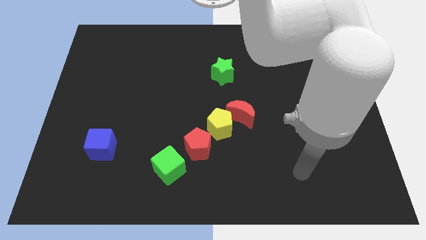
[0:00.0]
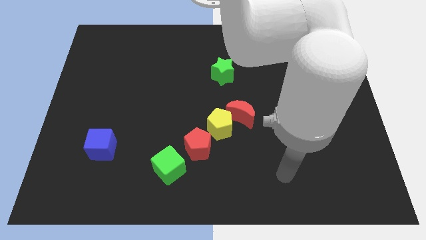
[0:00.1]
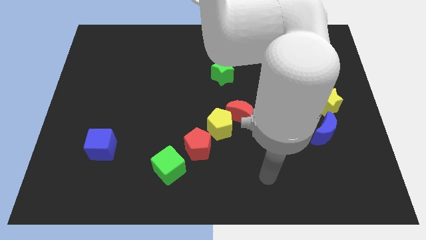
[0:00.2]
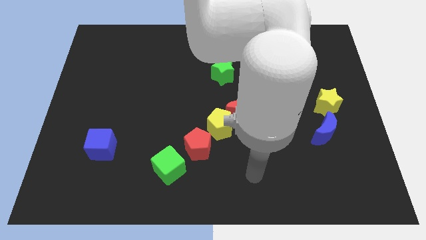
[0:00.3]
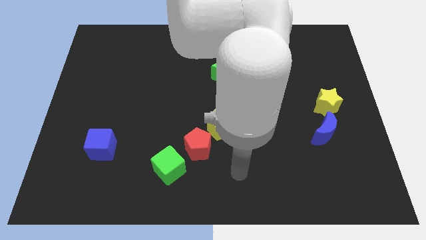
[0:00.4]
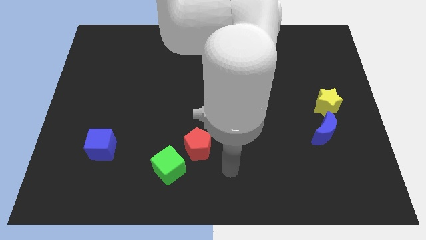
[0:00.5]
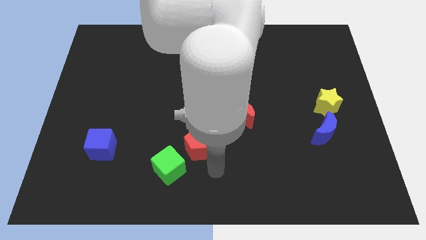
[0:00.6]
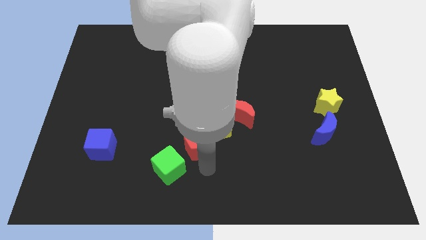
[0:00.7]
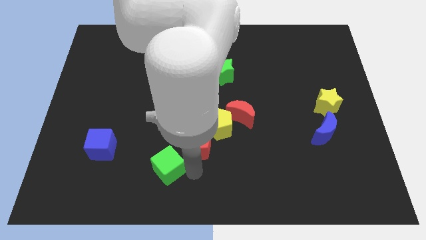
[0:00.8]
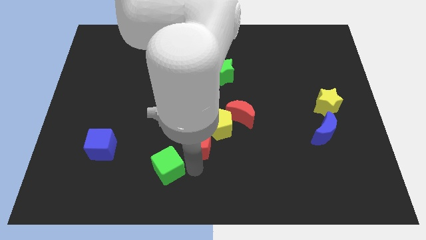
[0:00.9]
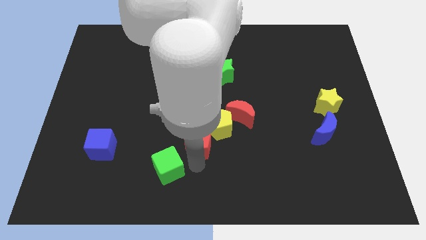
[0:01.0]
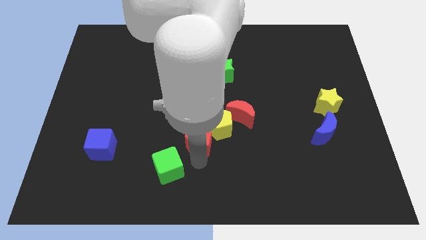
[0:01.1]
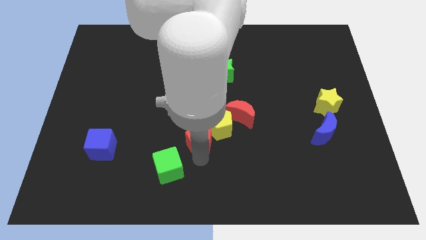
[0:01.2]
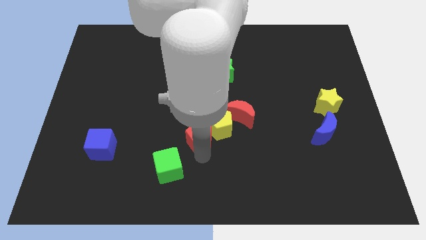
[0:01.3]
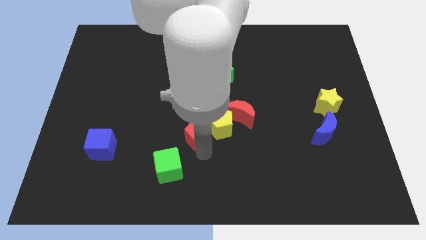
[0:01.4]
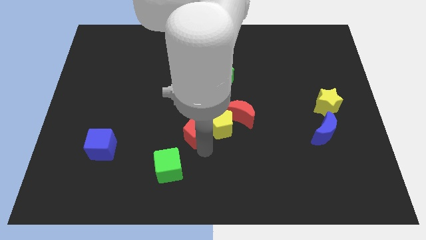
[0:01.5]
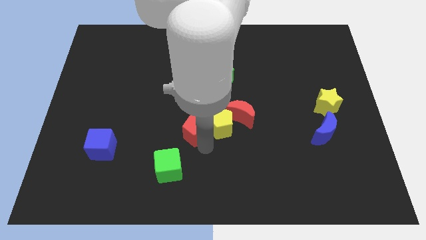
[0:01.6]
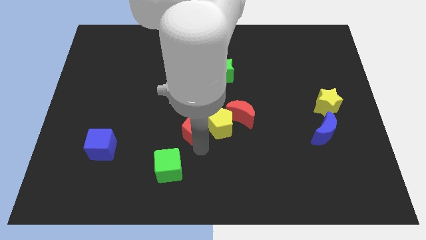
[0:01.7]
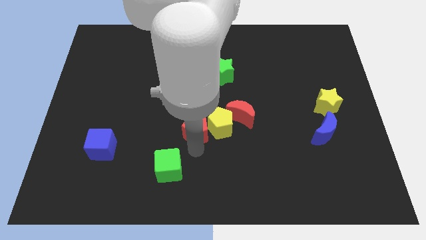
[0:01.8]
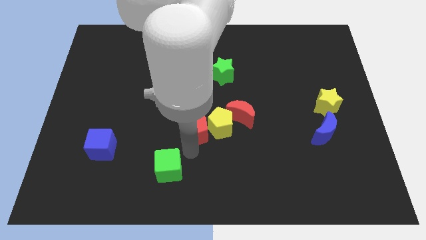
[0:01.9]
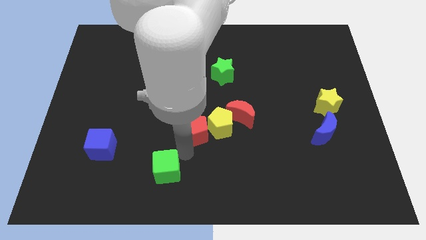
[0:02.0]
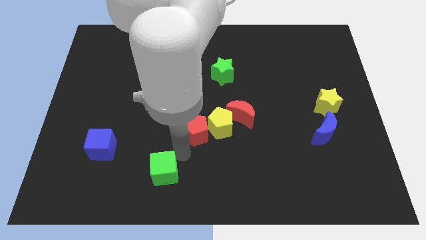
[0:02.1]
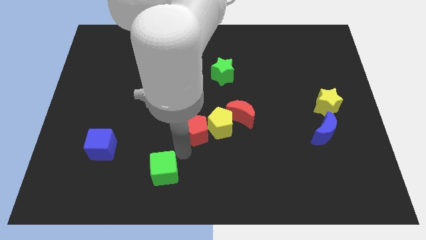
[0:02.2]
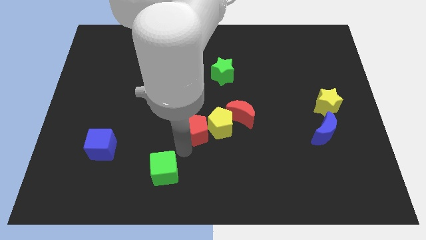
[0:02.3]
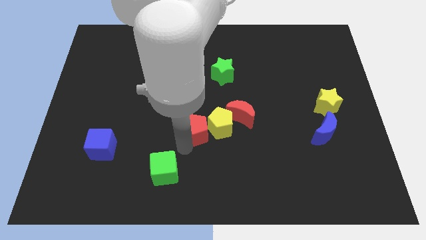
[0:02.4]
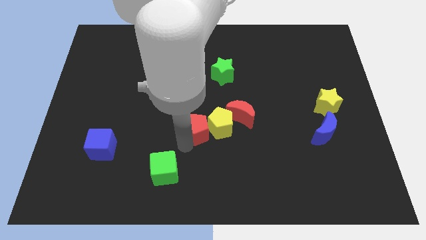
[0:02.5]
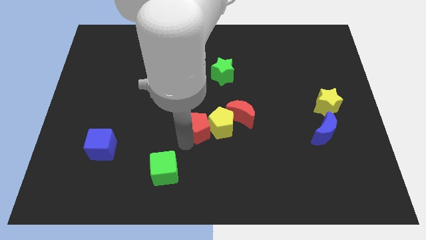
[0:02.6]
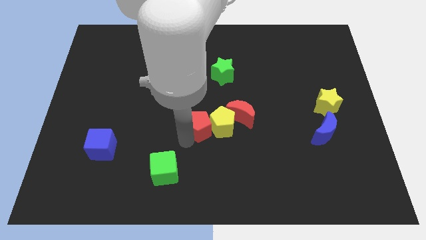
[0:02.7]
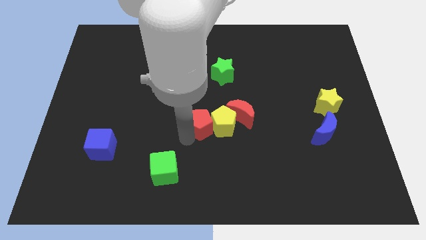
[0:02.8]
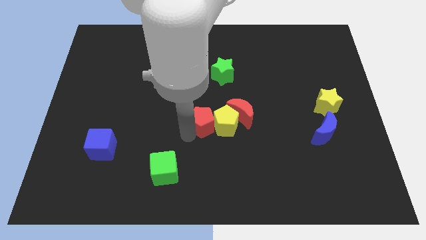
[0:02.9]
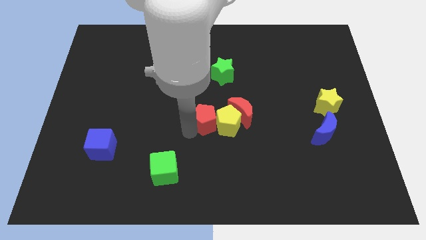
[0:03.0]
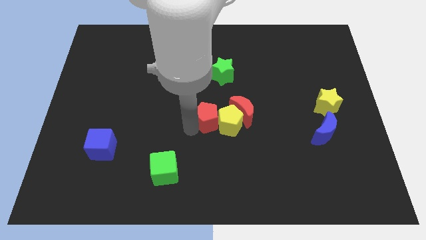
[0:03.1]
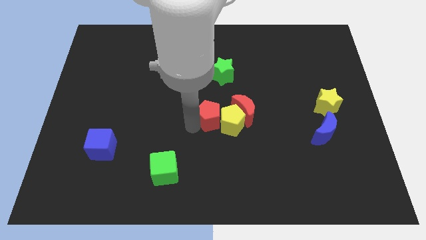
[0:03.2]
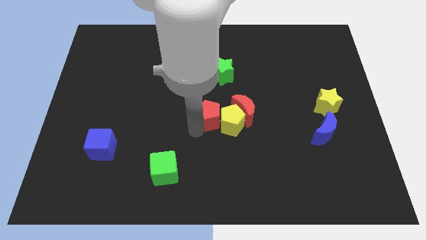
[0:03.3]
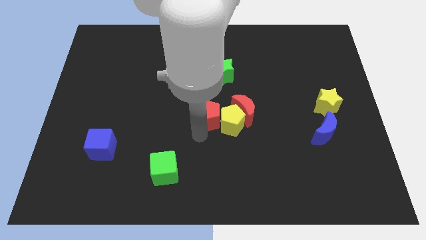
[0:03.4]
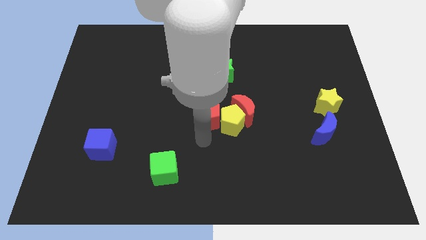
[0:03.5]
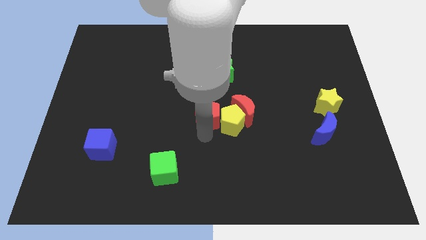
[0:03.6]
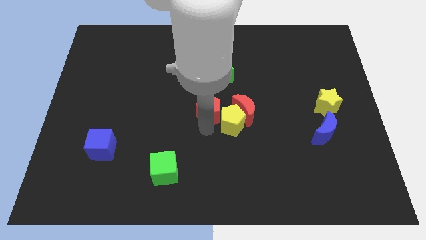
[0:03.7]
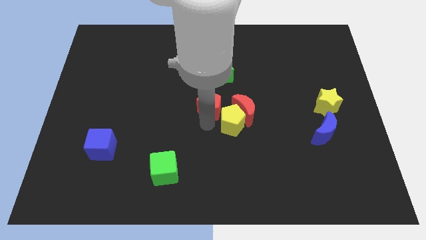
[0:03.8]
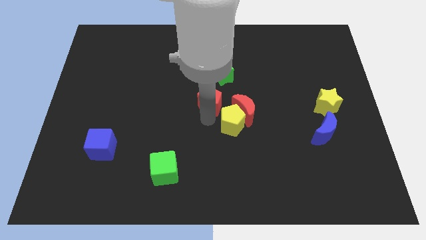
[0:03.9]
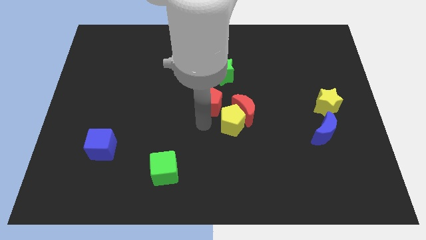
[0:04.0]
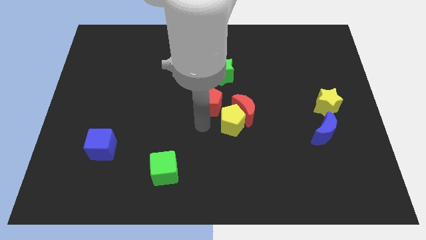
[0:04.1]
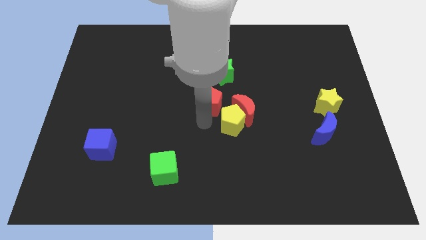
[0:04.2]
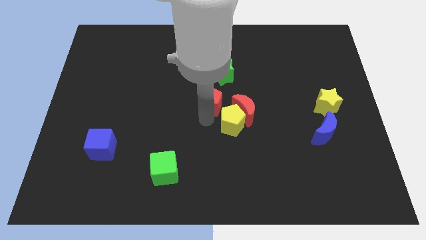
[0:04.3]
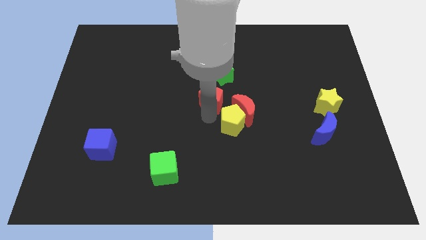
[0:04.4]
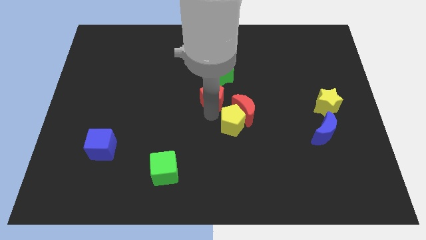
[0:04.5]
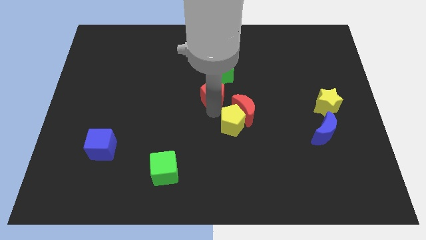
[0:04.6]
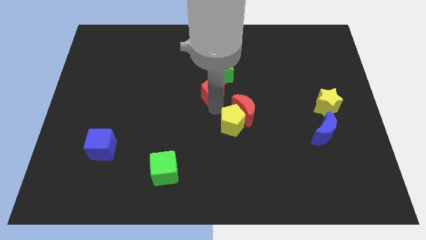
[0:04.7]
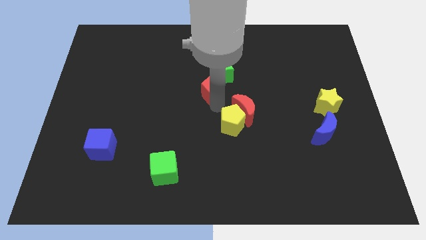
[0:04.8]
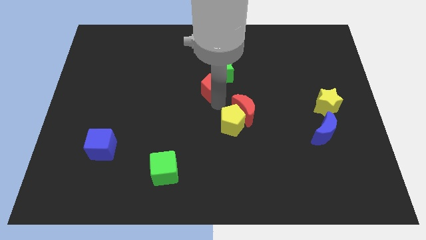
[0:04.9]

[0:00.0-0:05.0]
push the red pentagon next to the green star

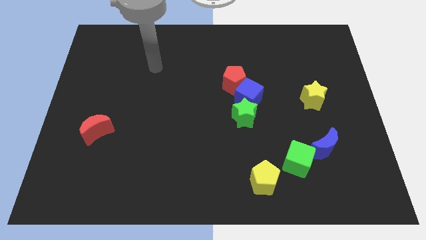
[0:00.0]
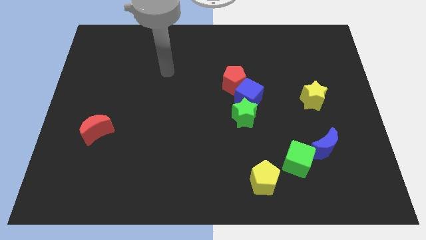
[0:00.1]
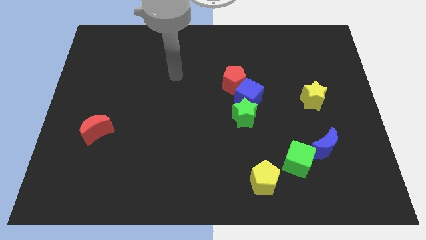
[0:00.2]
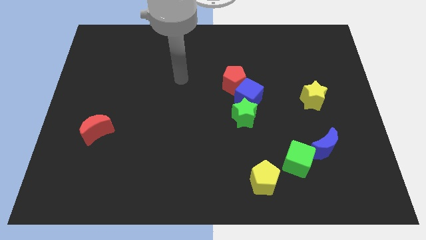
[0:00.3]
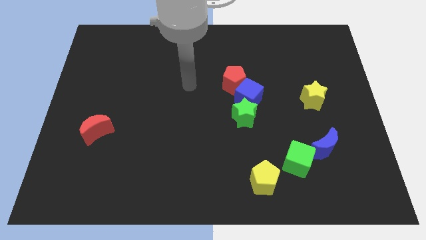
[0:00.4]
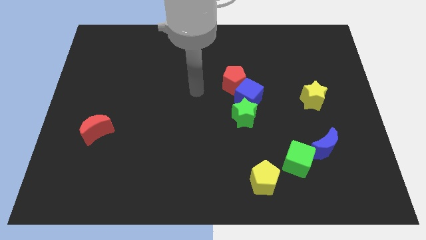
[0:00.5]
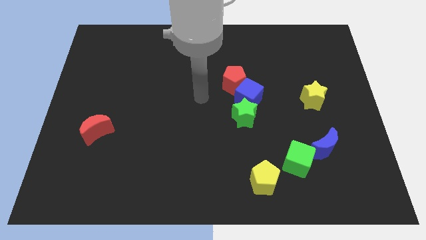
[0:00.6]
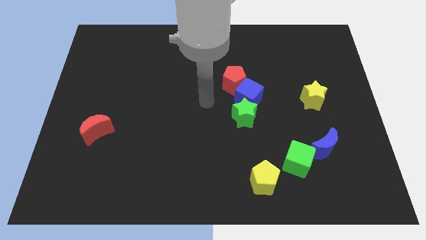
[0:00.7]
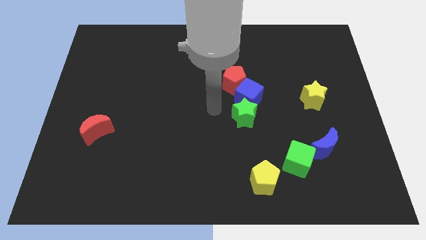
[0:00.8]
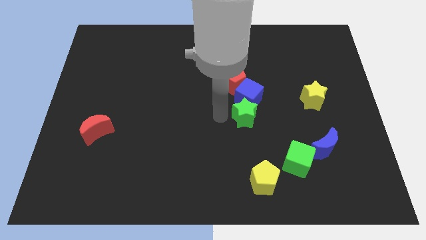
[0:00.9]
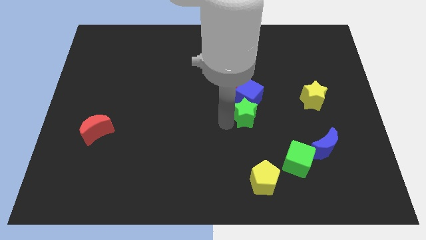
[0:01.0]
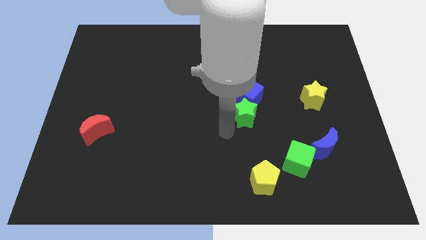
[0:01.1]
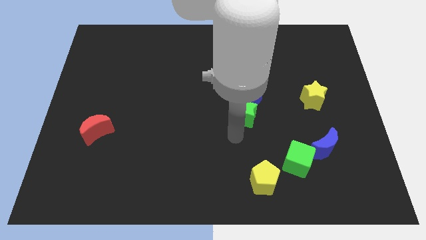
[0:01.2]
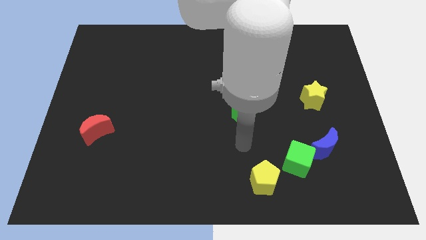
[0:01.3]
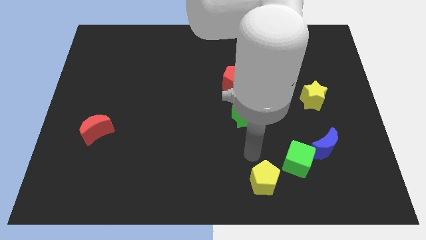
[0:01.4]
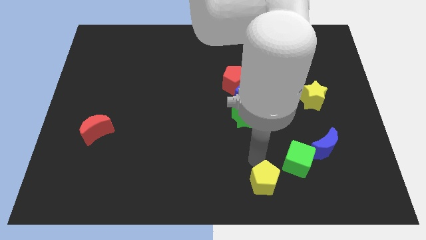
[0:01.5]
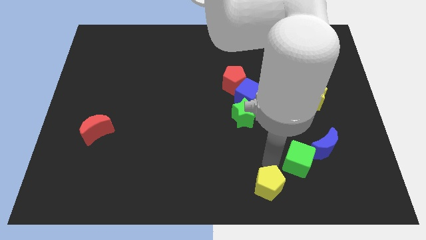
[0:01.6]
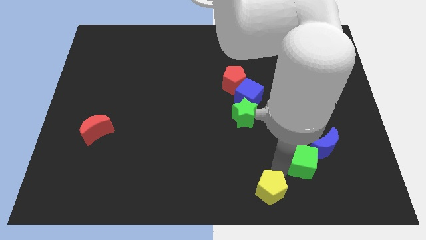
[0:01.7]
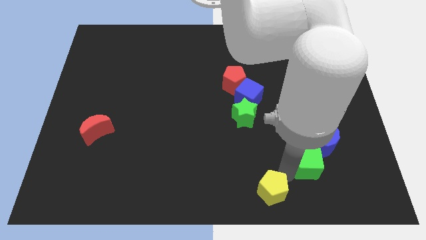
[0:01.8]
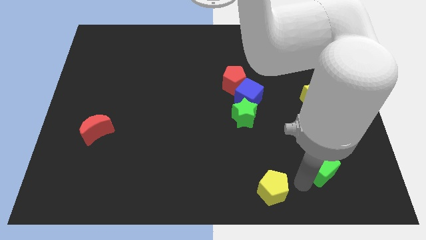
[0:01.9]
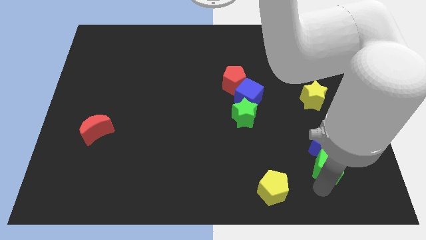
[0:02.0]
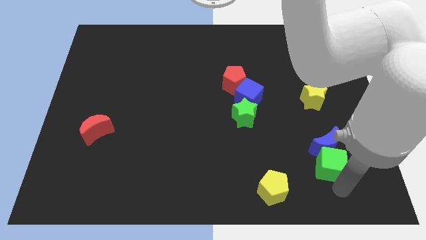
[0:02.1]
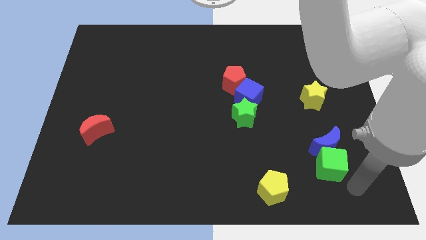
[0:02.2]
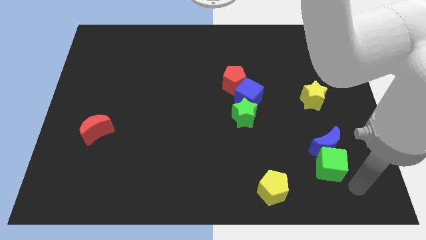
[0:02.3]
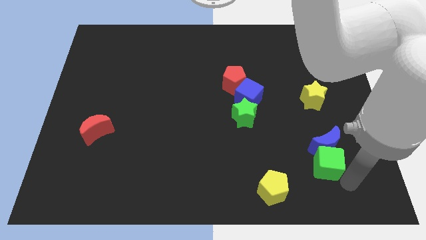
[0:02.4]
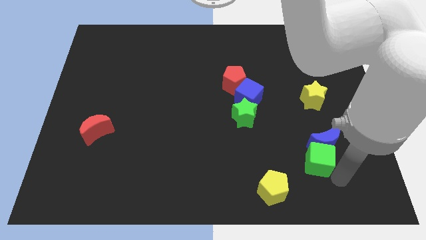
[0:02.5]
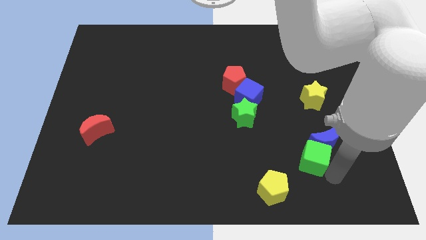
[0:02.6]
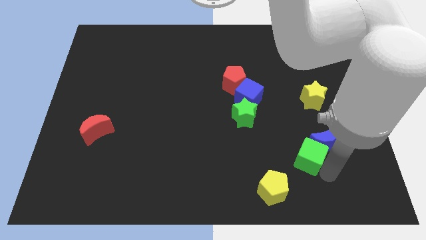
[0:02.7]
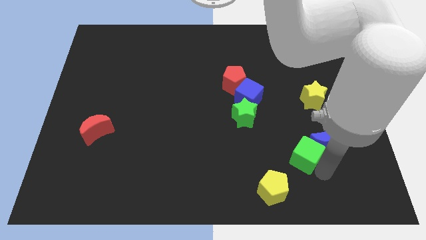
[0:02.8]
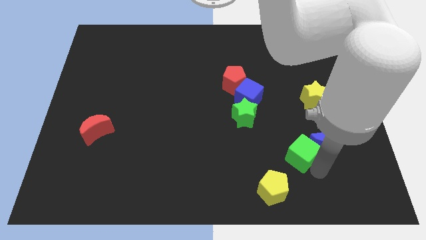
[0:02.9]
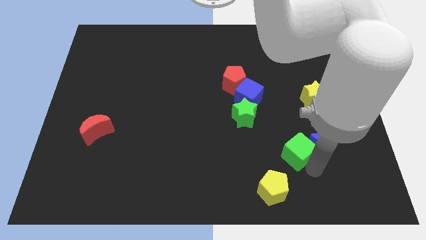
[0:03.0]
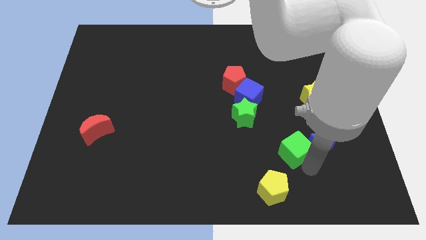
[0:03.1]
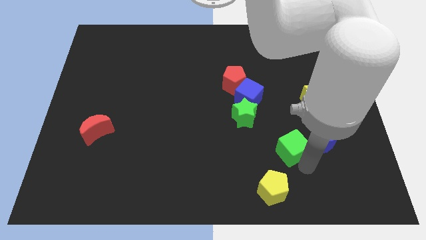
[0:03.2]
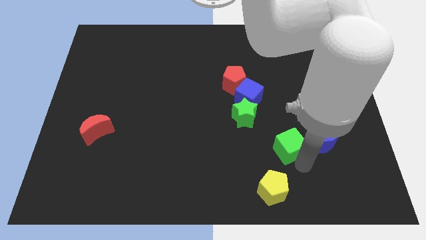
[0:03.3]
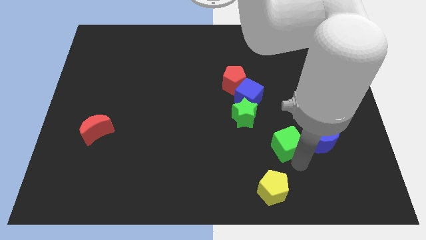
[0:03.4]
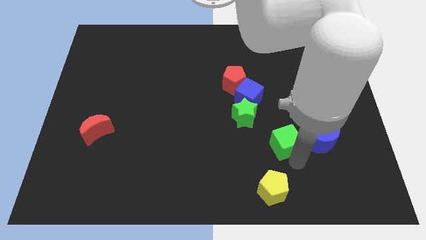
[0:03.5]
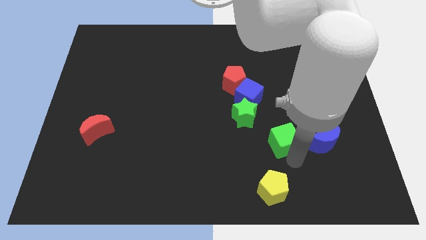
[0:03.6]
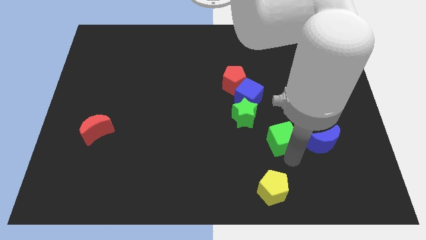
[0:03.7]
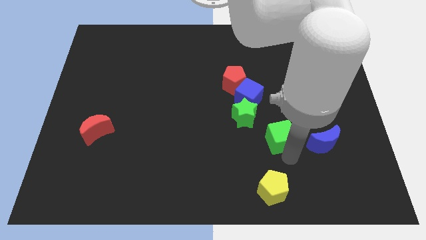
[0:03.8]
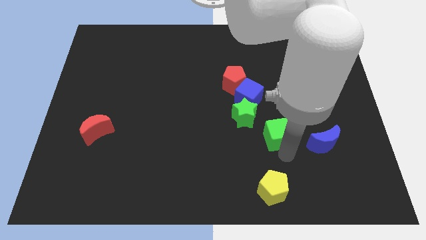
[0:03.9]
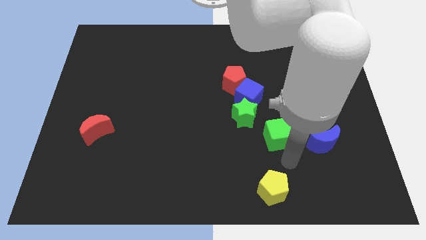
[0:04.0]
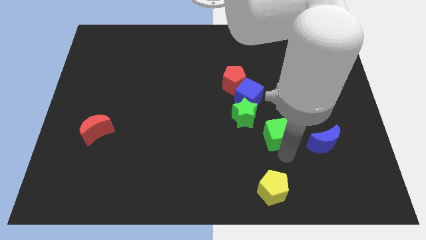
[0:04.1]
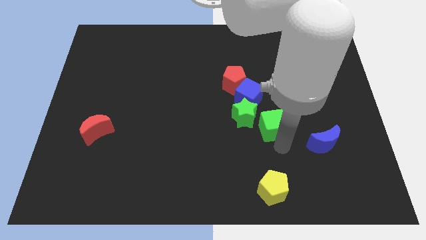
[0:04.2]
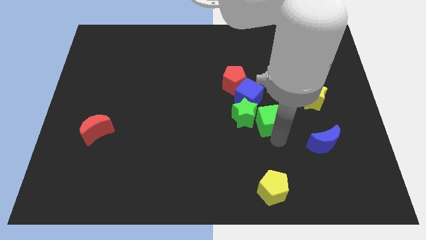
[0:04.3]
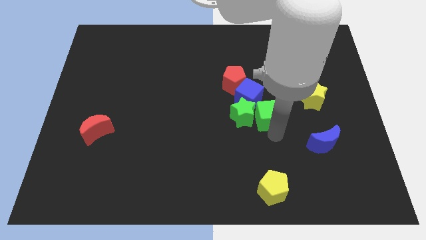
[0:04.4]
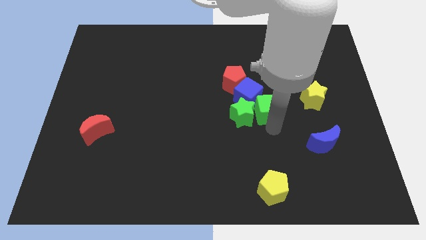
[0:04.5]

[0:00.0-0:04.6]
push the green cube close to the blue cube
